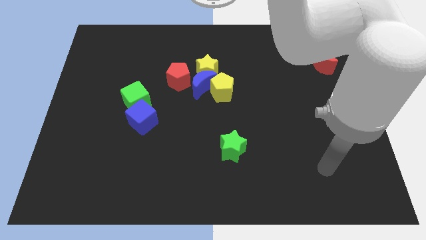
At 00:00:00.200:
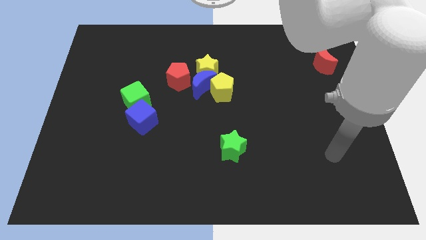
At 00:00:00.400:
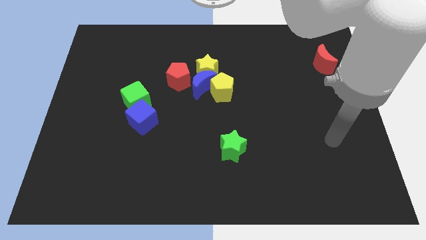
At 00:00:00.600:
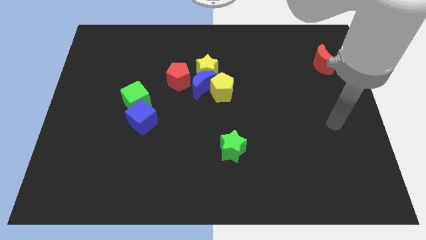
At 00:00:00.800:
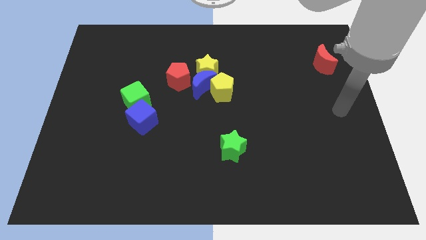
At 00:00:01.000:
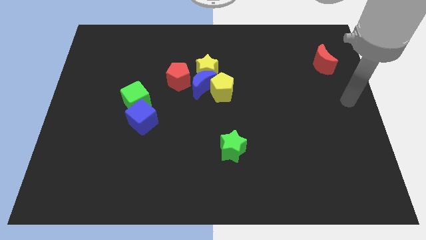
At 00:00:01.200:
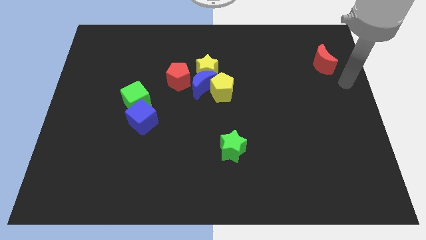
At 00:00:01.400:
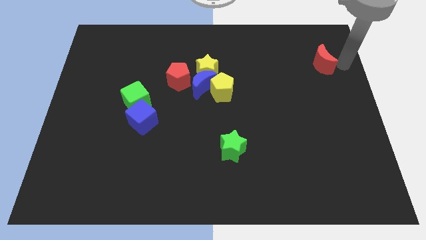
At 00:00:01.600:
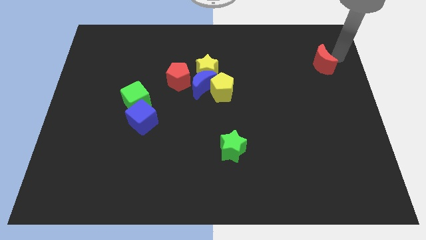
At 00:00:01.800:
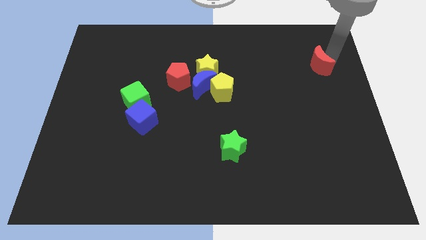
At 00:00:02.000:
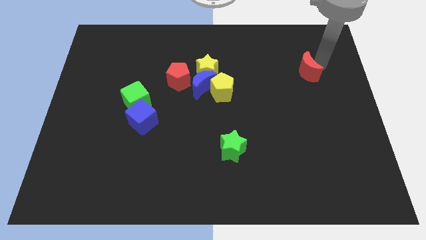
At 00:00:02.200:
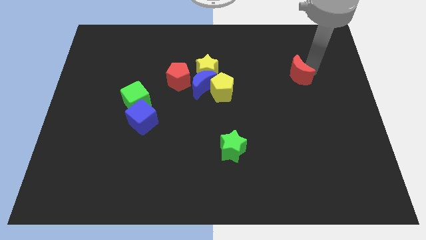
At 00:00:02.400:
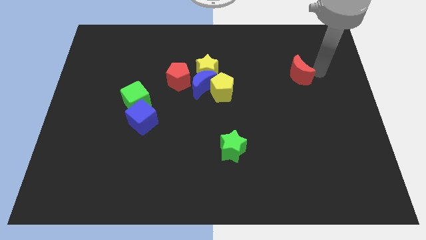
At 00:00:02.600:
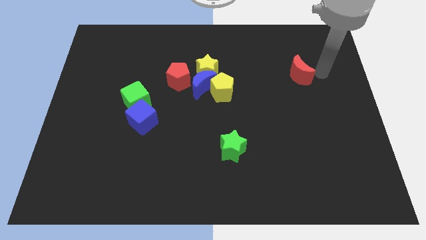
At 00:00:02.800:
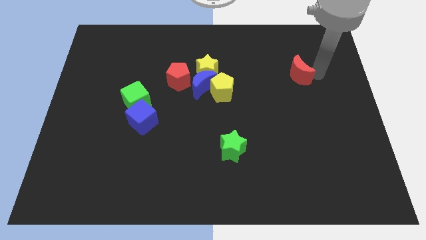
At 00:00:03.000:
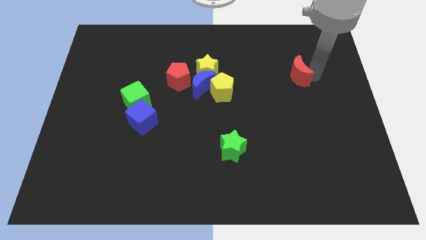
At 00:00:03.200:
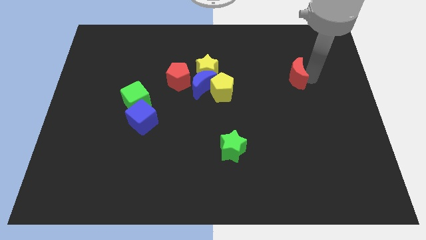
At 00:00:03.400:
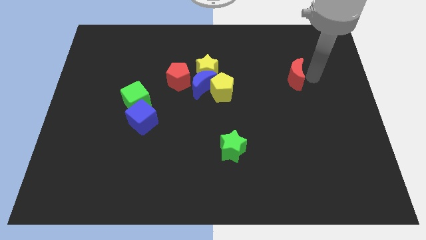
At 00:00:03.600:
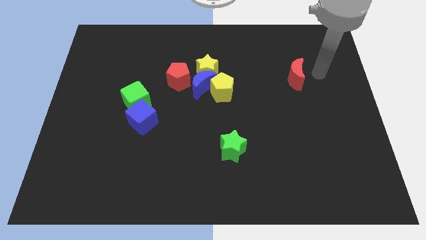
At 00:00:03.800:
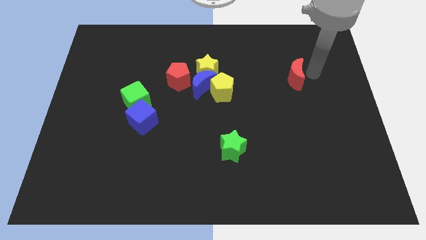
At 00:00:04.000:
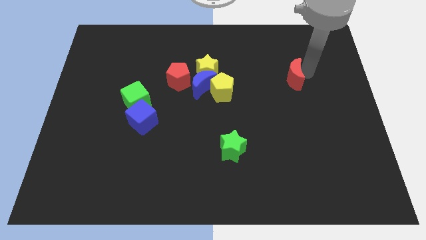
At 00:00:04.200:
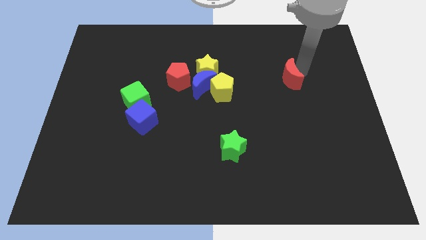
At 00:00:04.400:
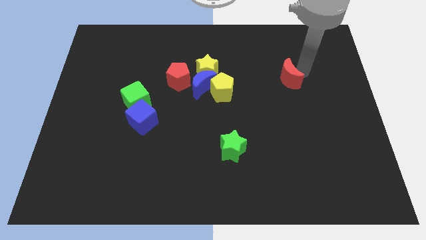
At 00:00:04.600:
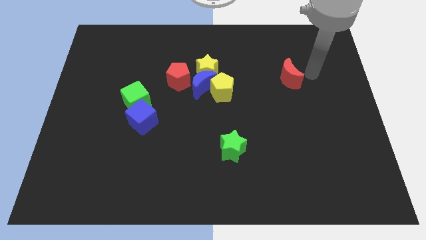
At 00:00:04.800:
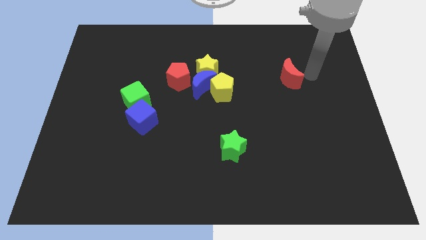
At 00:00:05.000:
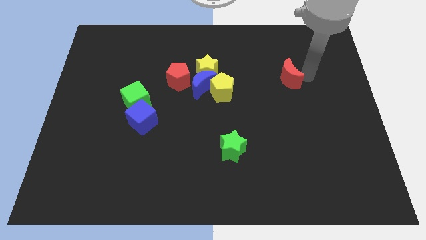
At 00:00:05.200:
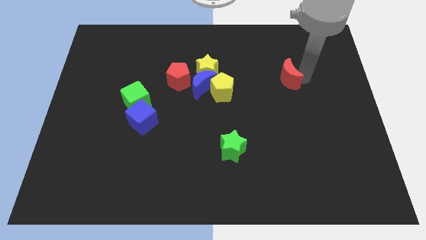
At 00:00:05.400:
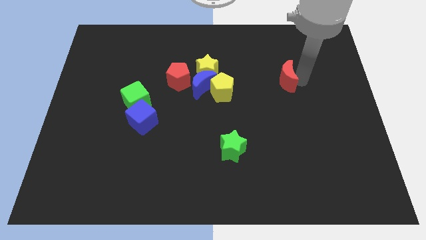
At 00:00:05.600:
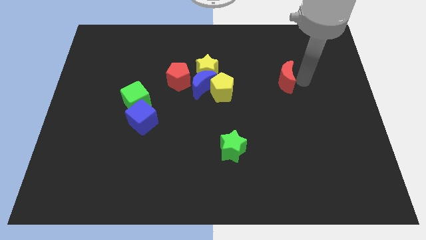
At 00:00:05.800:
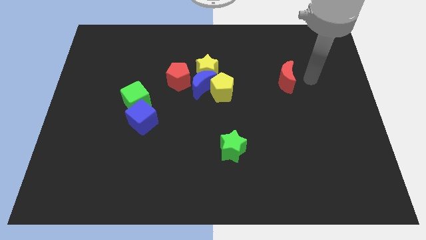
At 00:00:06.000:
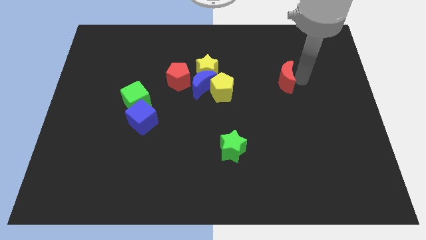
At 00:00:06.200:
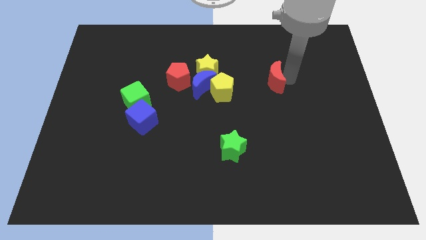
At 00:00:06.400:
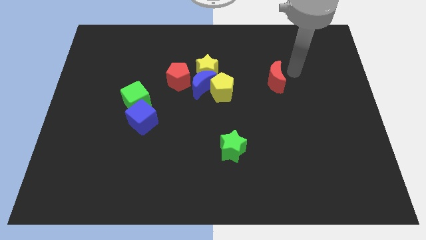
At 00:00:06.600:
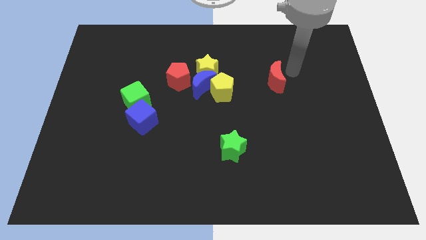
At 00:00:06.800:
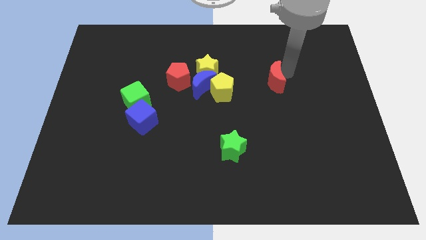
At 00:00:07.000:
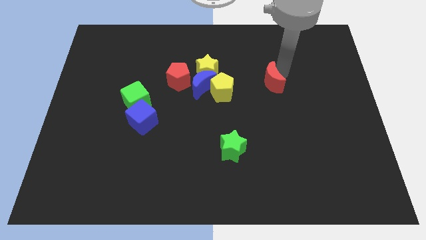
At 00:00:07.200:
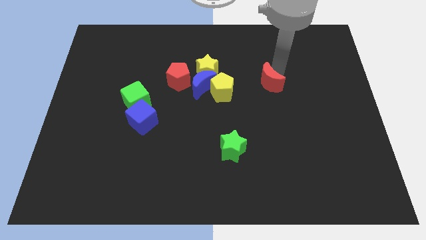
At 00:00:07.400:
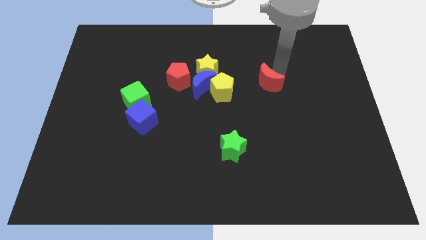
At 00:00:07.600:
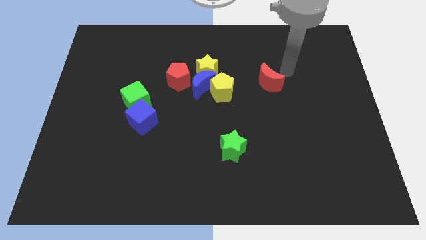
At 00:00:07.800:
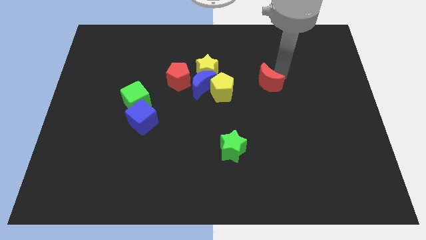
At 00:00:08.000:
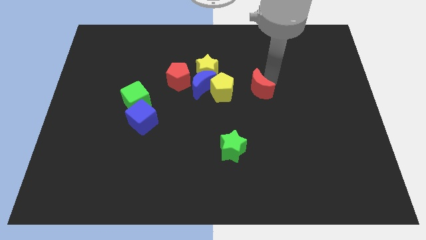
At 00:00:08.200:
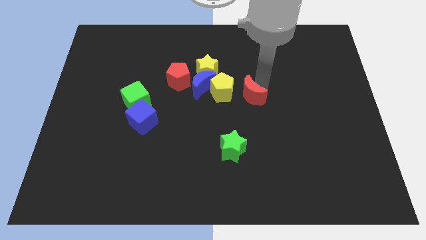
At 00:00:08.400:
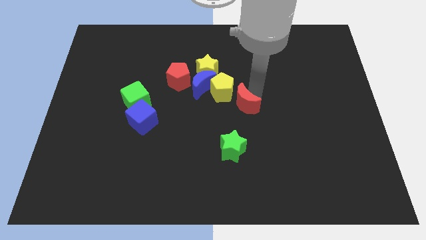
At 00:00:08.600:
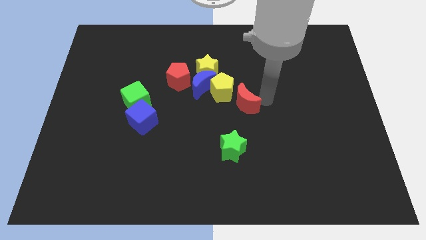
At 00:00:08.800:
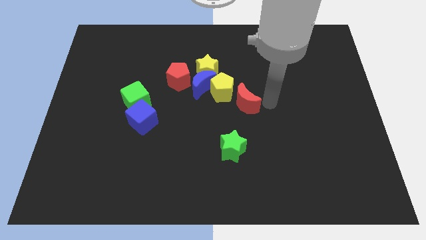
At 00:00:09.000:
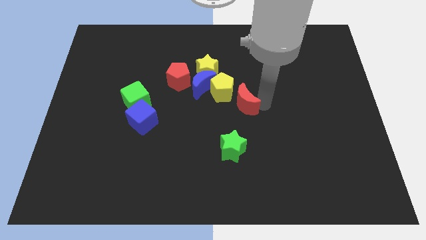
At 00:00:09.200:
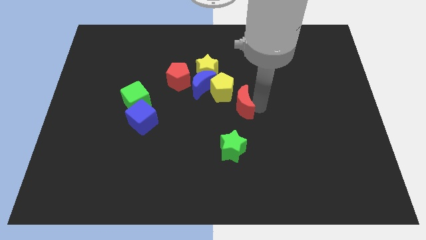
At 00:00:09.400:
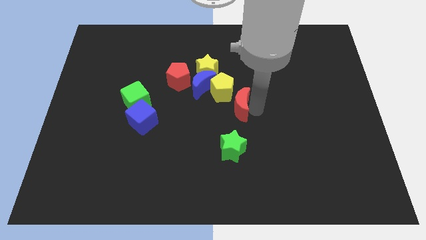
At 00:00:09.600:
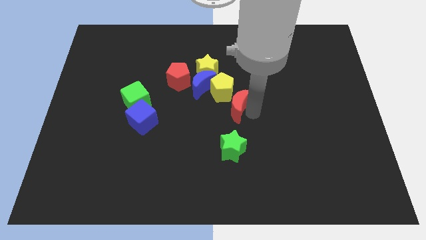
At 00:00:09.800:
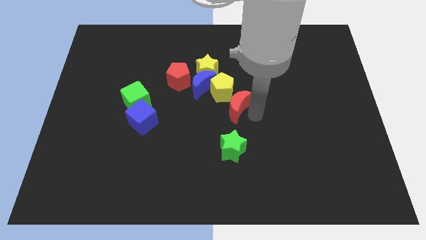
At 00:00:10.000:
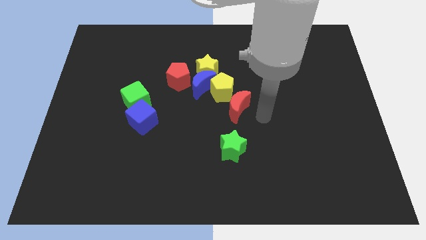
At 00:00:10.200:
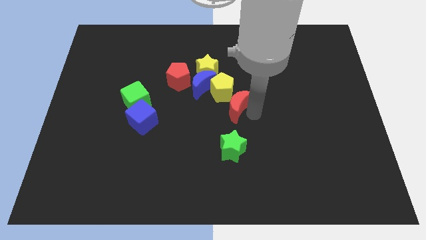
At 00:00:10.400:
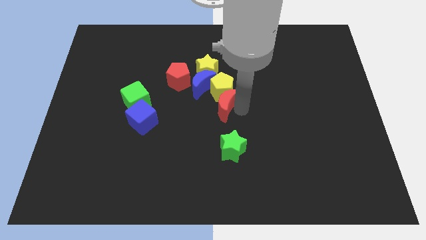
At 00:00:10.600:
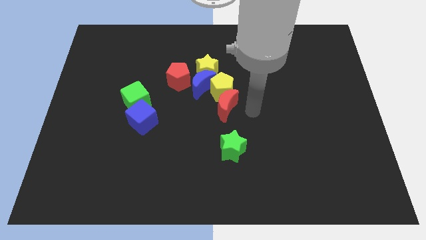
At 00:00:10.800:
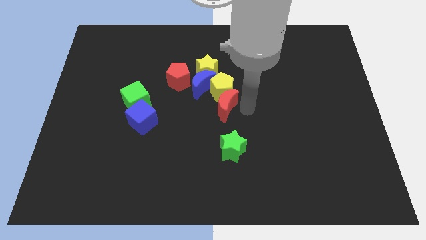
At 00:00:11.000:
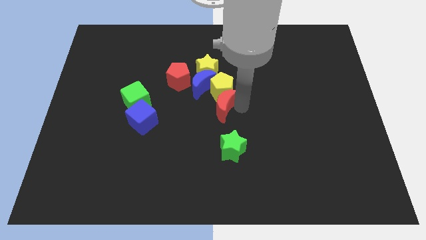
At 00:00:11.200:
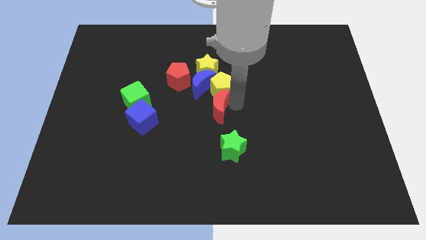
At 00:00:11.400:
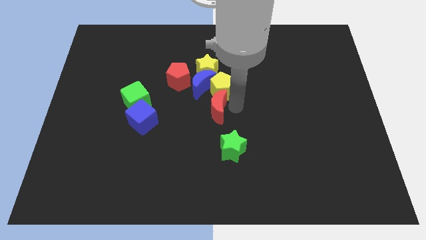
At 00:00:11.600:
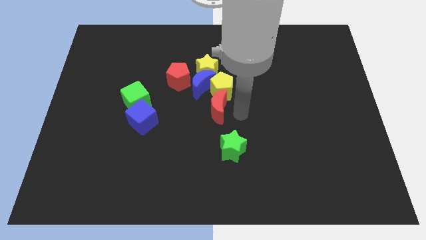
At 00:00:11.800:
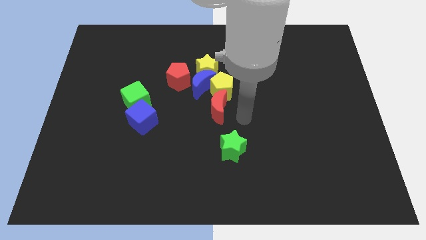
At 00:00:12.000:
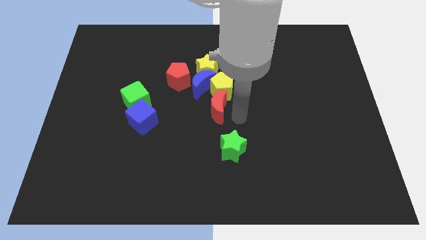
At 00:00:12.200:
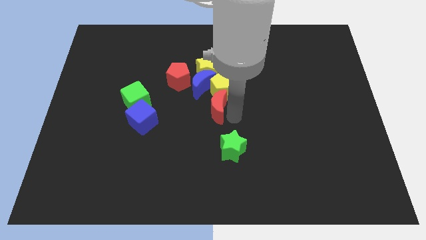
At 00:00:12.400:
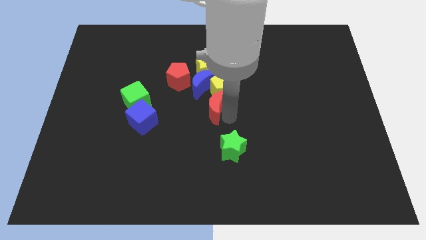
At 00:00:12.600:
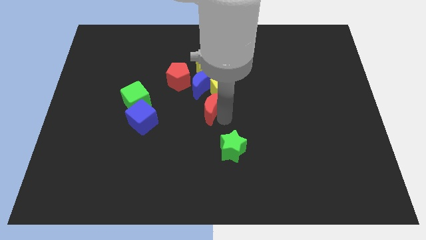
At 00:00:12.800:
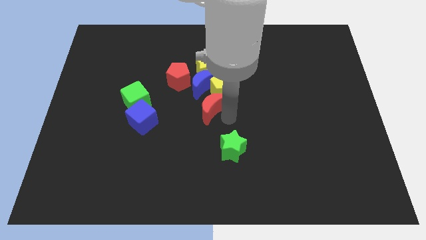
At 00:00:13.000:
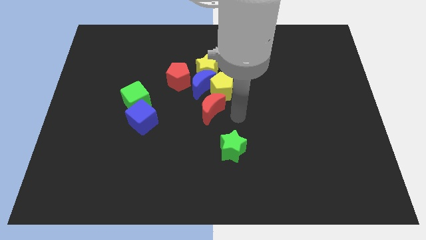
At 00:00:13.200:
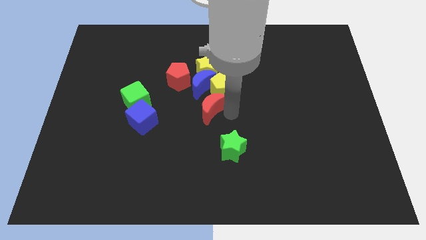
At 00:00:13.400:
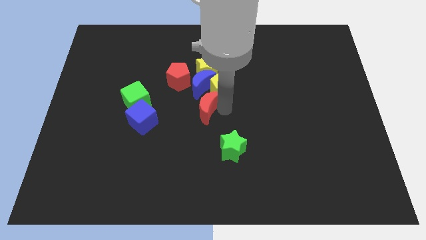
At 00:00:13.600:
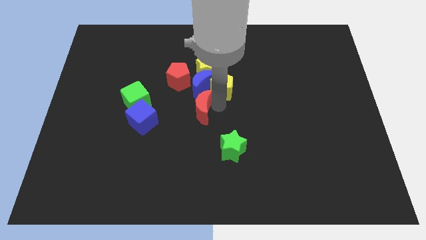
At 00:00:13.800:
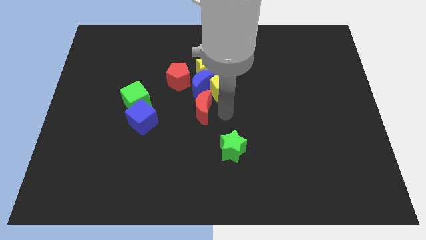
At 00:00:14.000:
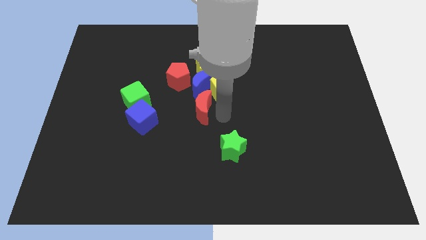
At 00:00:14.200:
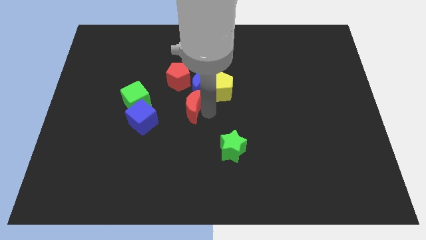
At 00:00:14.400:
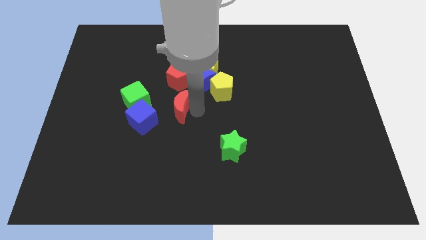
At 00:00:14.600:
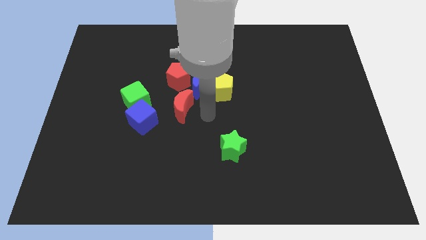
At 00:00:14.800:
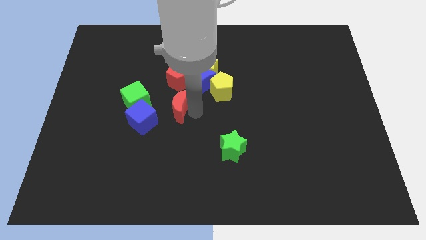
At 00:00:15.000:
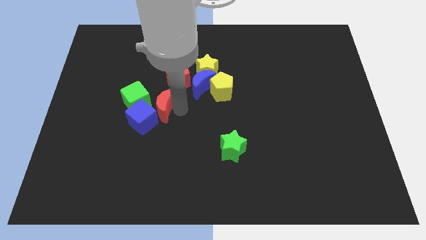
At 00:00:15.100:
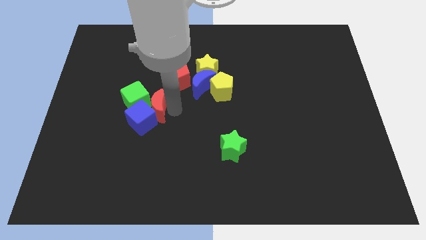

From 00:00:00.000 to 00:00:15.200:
move the red moon to the green cube
